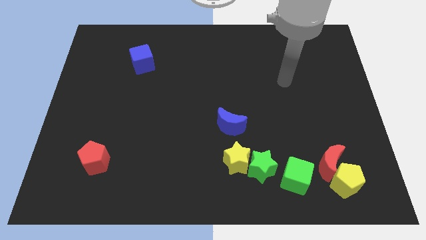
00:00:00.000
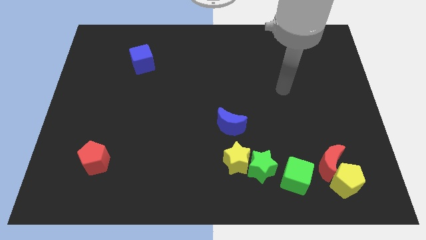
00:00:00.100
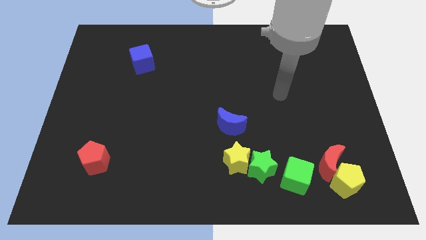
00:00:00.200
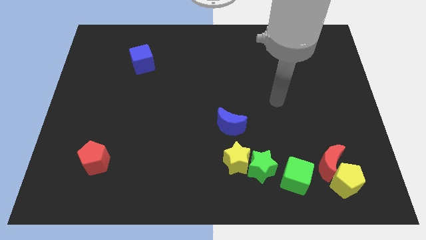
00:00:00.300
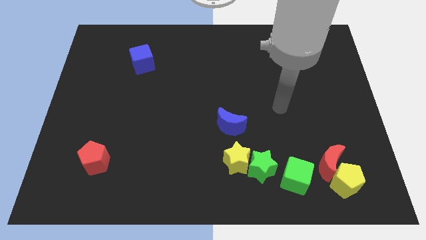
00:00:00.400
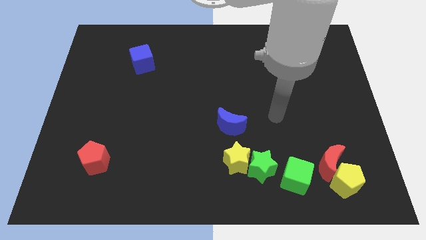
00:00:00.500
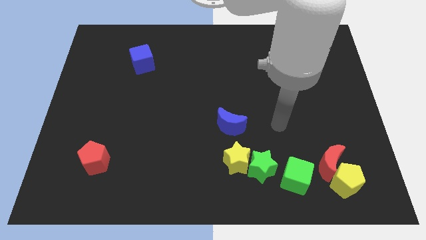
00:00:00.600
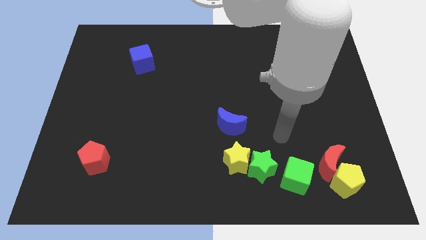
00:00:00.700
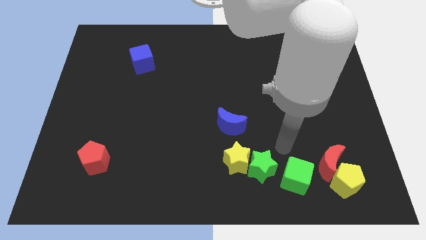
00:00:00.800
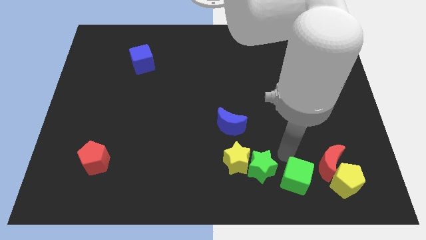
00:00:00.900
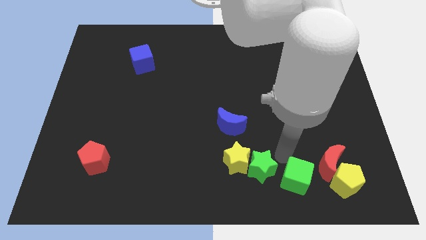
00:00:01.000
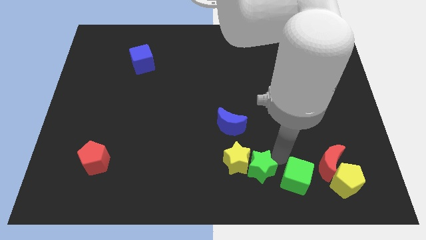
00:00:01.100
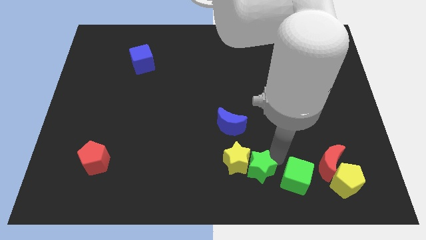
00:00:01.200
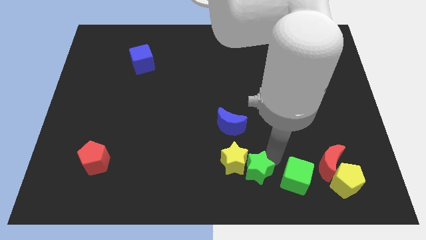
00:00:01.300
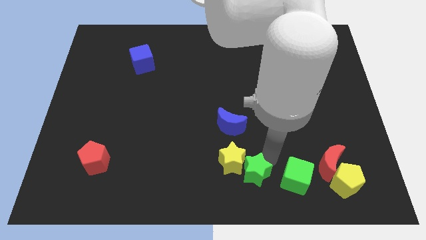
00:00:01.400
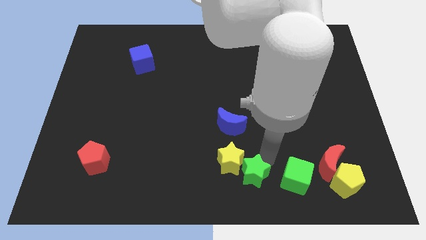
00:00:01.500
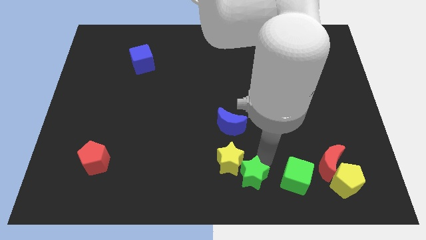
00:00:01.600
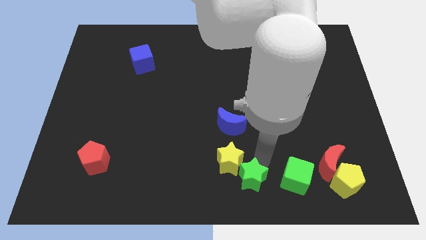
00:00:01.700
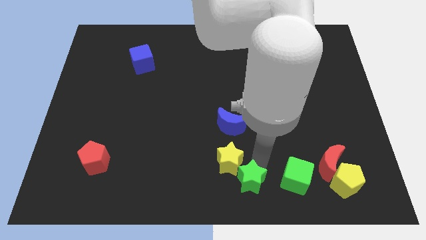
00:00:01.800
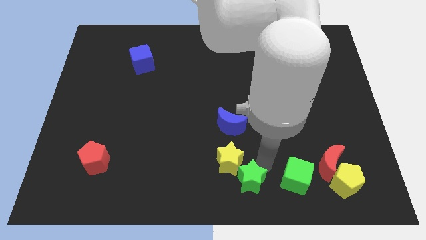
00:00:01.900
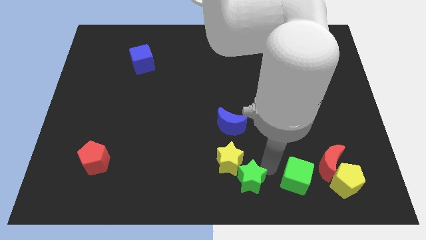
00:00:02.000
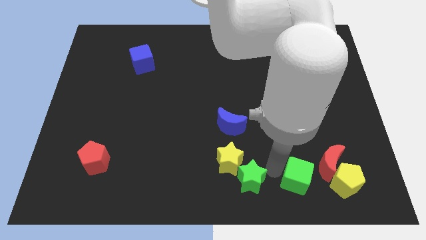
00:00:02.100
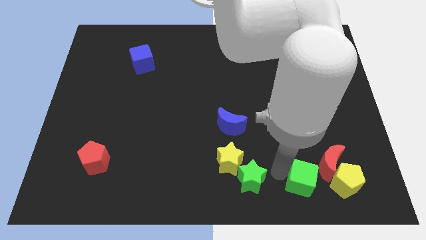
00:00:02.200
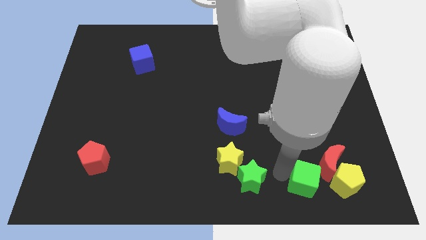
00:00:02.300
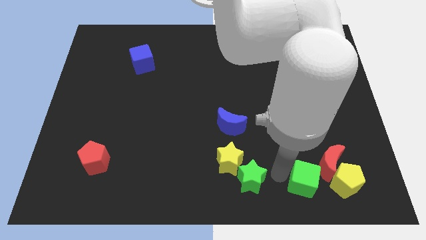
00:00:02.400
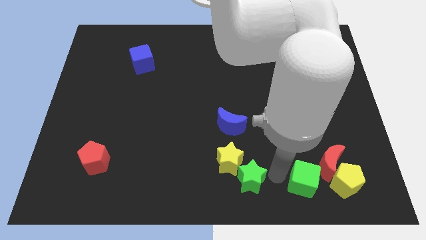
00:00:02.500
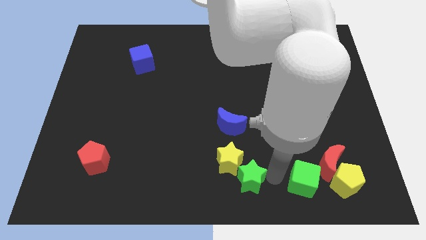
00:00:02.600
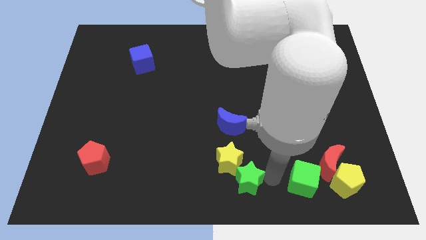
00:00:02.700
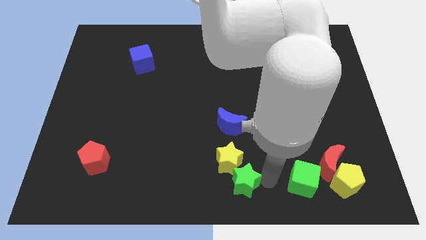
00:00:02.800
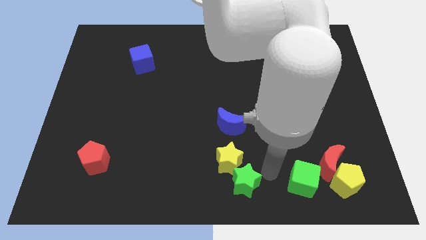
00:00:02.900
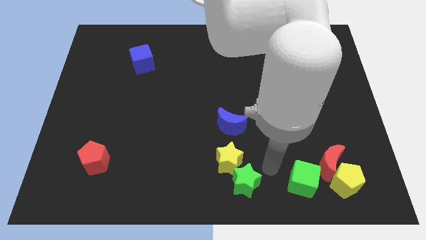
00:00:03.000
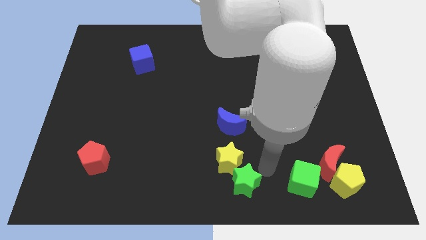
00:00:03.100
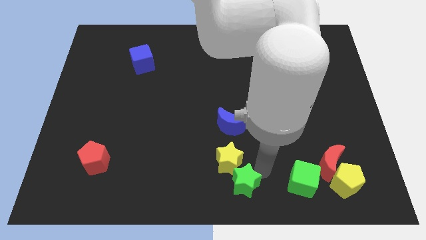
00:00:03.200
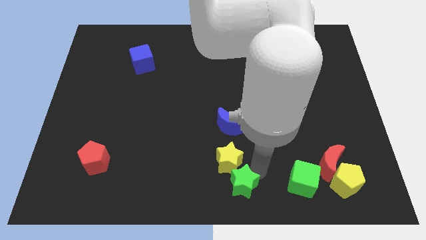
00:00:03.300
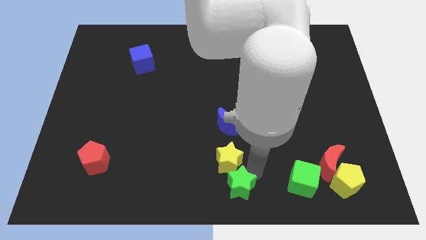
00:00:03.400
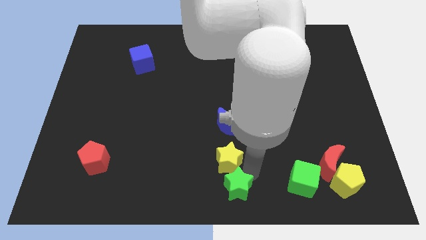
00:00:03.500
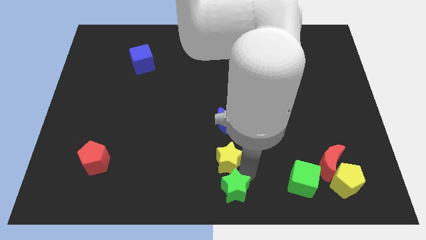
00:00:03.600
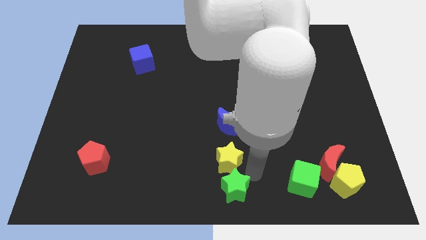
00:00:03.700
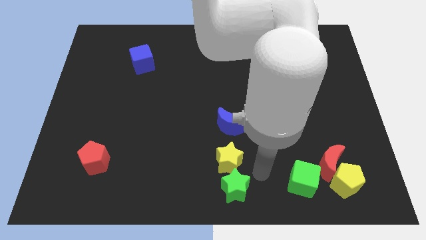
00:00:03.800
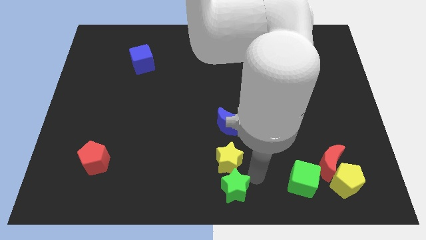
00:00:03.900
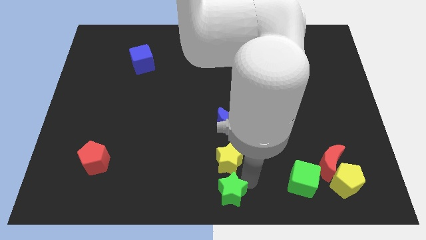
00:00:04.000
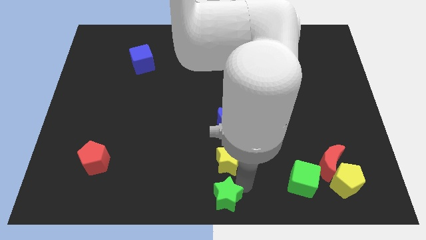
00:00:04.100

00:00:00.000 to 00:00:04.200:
move the green star away from the yellow star and green cube

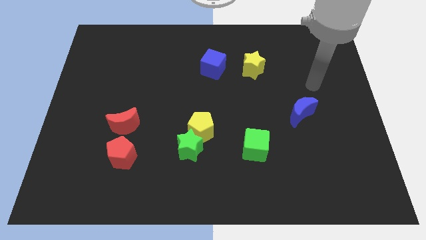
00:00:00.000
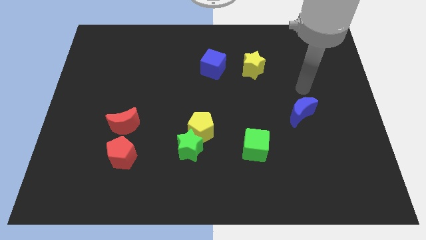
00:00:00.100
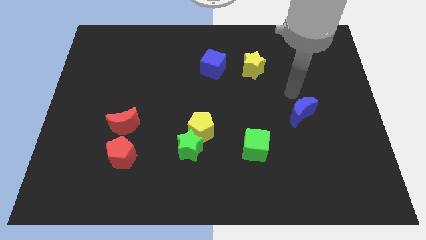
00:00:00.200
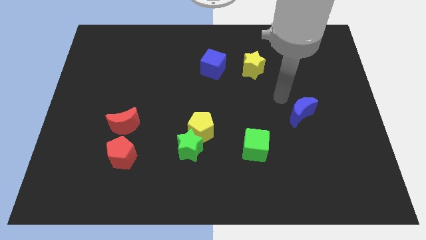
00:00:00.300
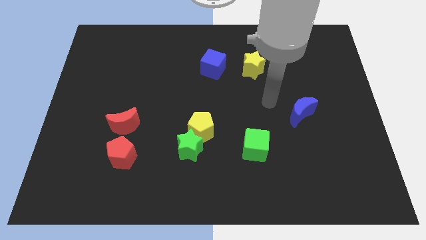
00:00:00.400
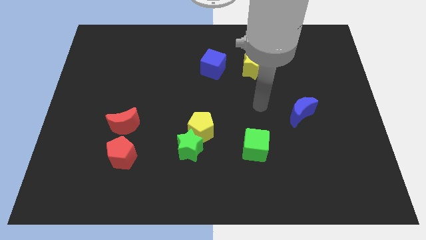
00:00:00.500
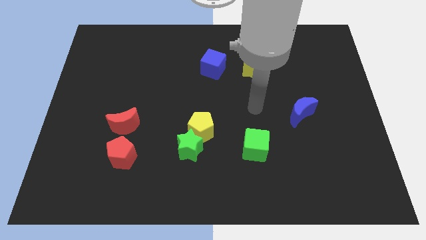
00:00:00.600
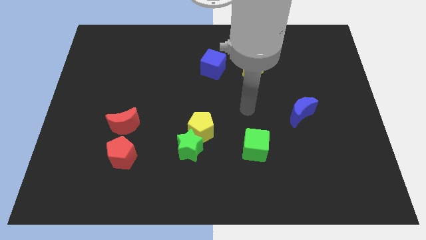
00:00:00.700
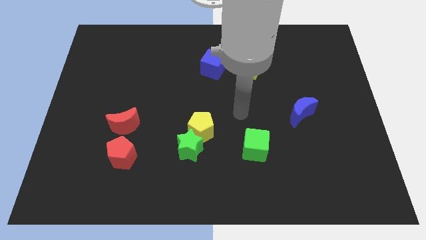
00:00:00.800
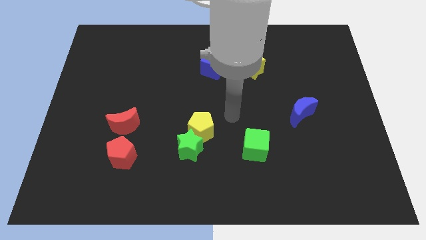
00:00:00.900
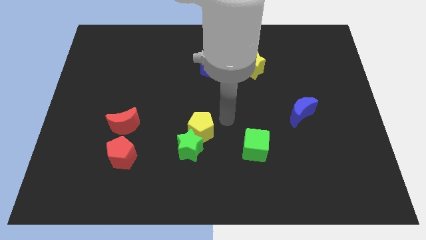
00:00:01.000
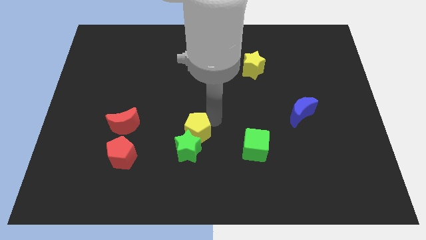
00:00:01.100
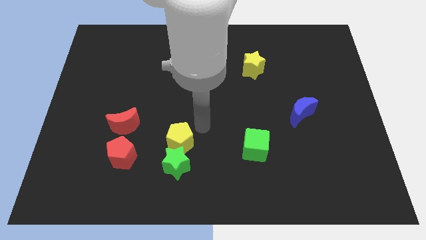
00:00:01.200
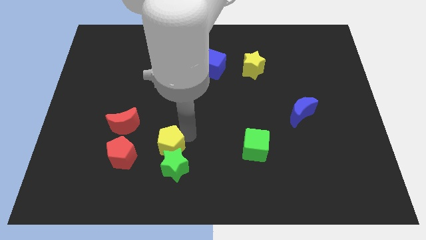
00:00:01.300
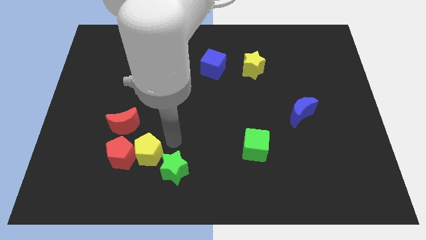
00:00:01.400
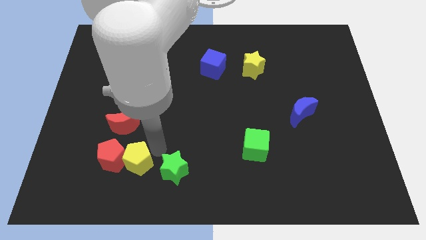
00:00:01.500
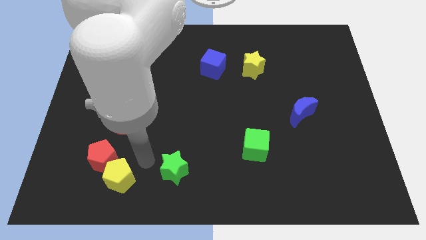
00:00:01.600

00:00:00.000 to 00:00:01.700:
pull the green star apart from the yellow pentagon

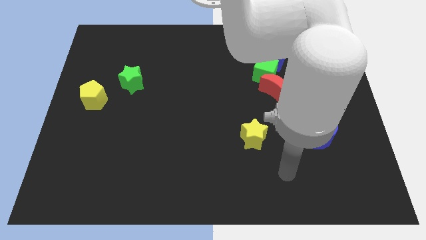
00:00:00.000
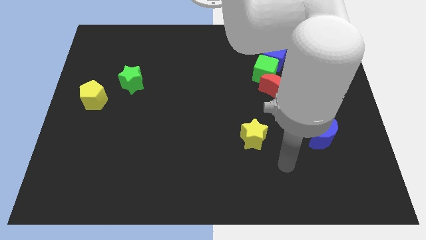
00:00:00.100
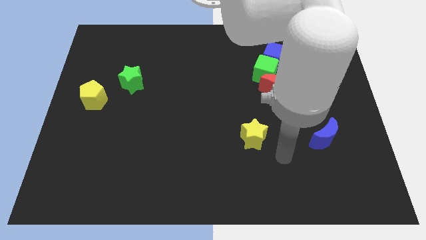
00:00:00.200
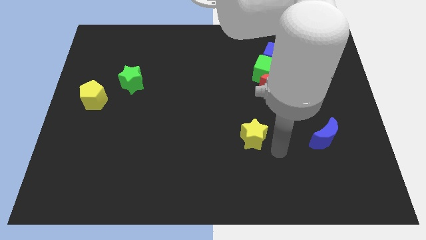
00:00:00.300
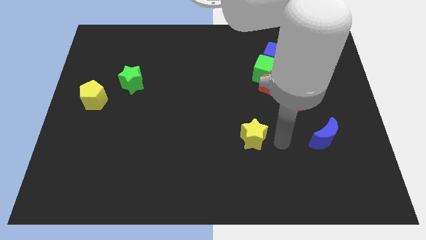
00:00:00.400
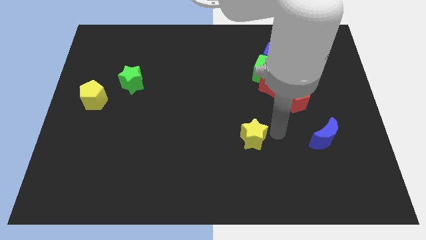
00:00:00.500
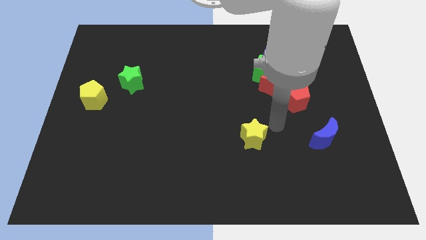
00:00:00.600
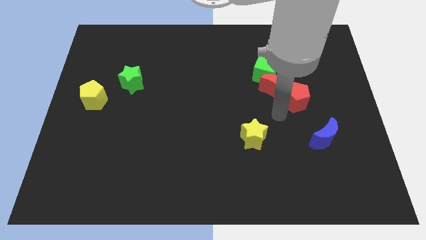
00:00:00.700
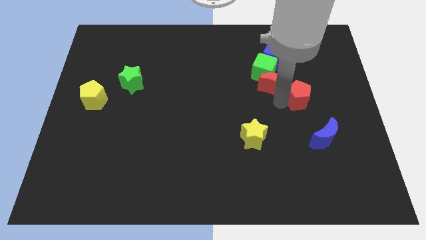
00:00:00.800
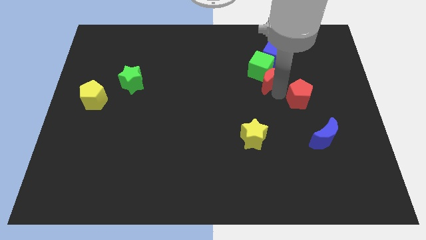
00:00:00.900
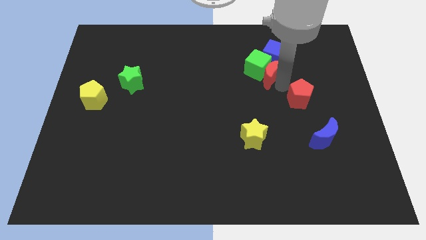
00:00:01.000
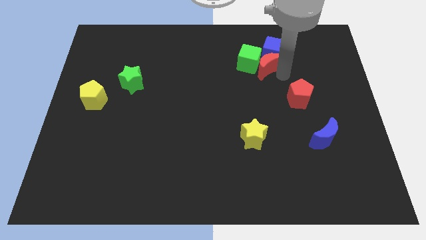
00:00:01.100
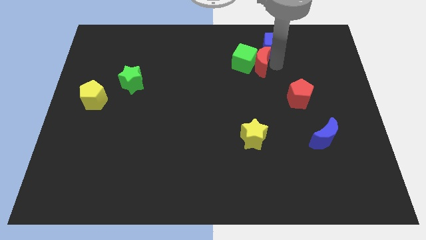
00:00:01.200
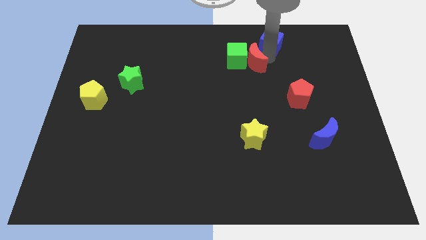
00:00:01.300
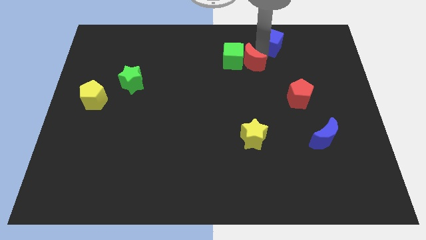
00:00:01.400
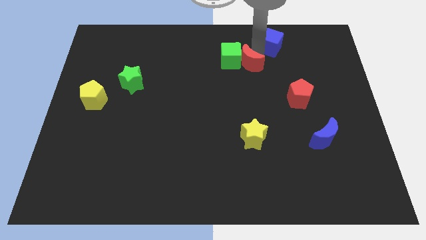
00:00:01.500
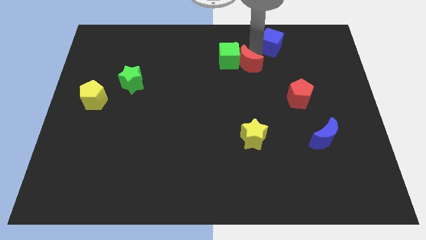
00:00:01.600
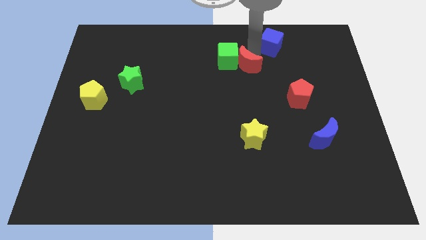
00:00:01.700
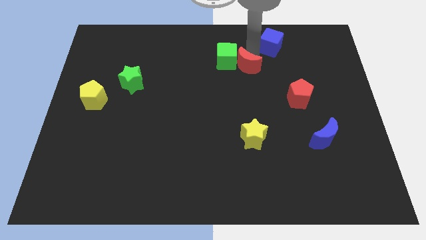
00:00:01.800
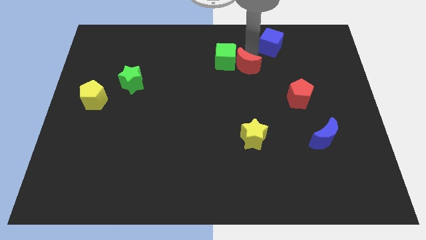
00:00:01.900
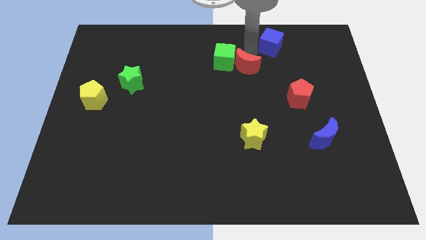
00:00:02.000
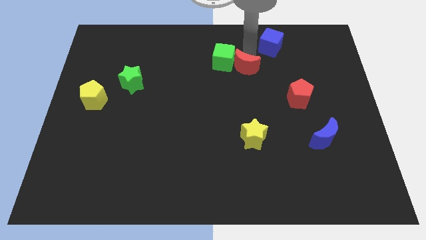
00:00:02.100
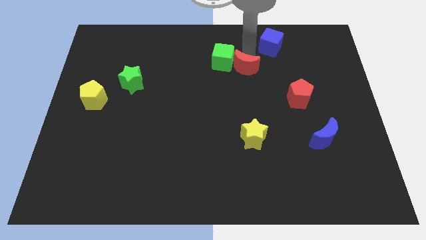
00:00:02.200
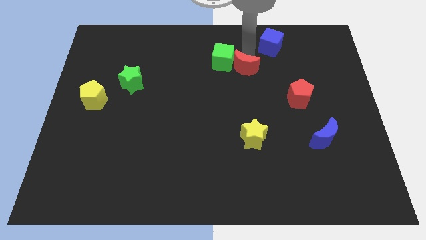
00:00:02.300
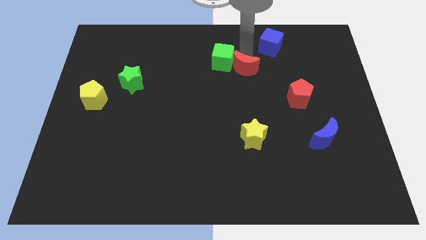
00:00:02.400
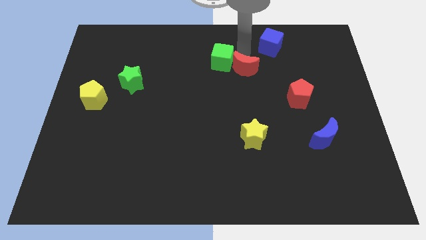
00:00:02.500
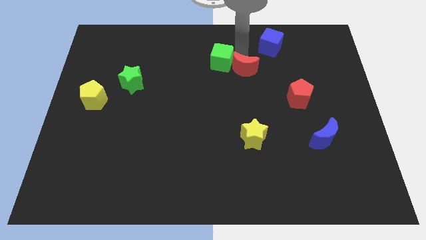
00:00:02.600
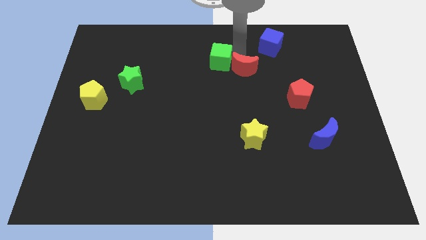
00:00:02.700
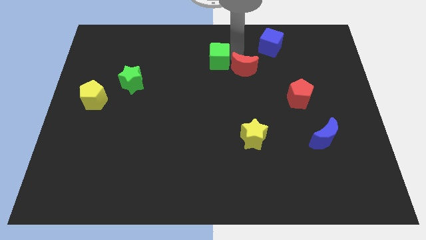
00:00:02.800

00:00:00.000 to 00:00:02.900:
separate the green cube from the blue cube and red moon

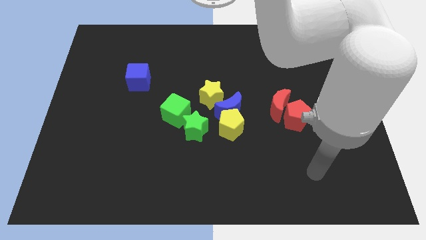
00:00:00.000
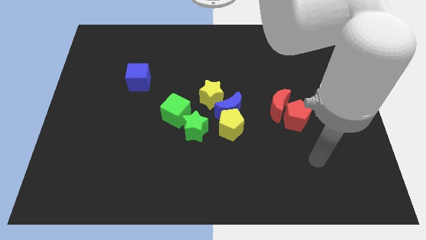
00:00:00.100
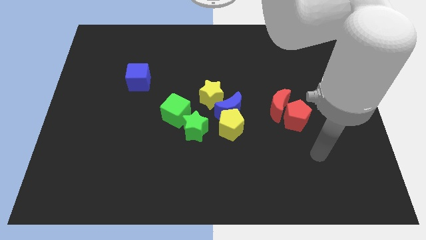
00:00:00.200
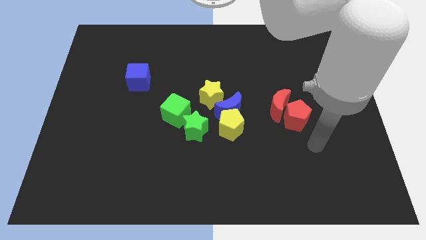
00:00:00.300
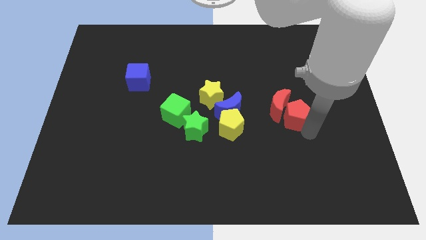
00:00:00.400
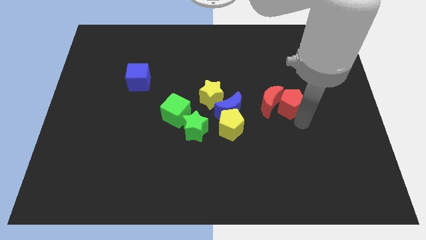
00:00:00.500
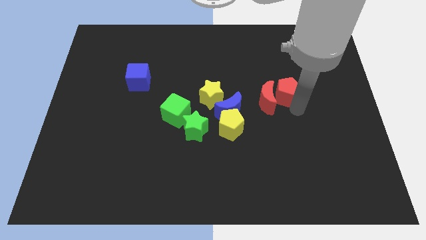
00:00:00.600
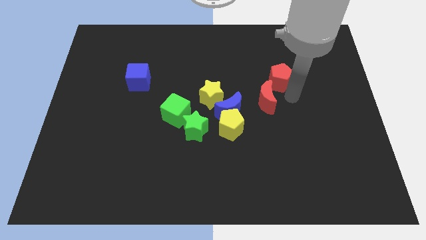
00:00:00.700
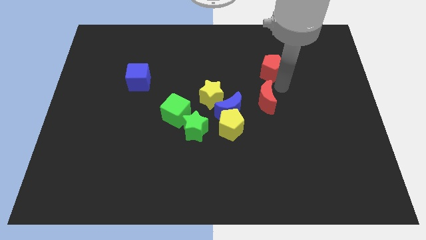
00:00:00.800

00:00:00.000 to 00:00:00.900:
pull the red moon apart from the red pentagon
